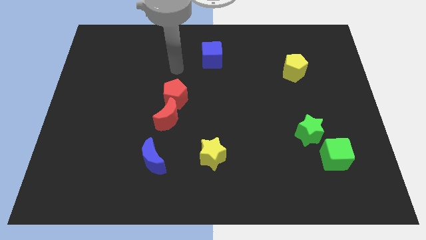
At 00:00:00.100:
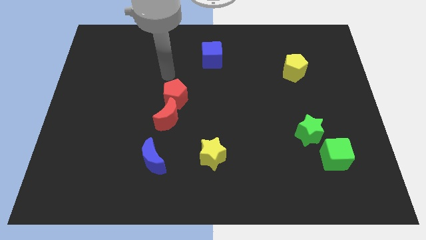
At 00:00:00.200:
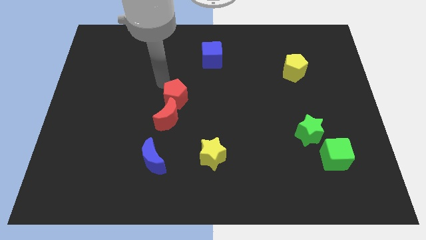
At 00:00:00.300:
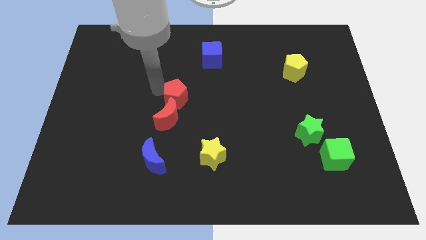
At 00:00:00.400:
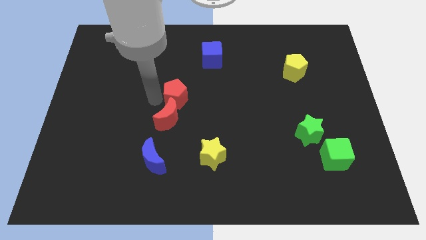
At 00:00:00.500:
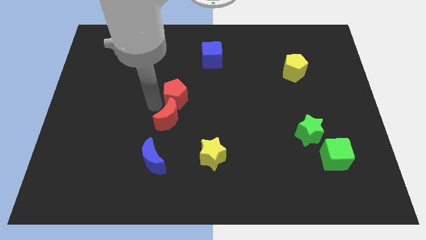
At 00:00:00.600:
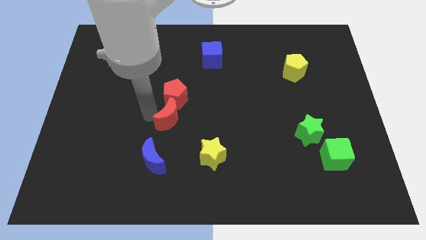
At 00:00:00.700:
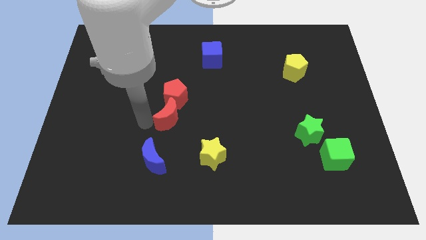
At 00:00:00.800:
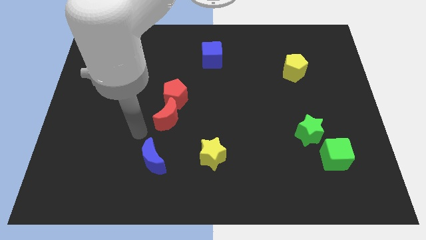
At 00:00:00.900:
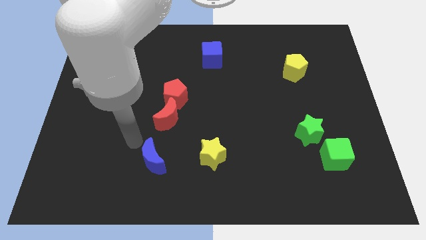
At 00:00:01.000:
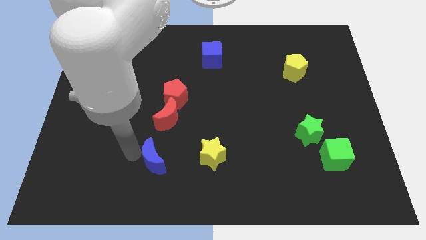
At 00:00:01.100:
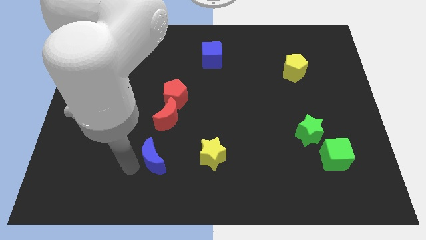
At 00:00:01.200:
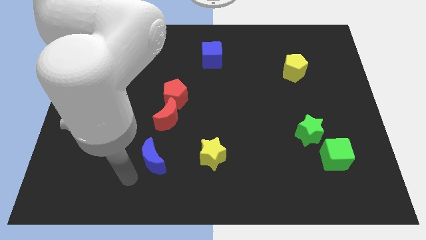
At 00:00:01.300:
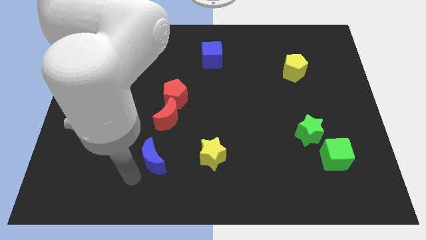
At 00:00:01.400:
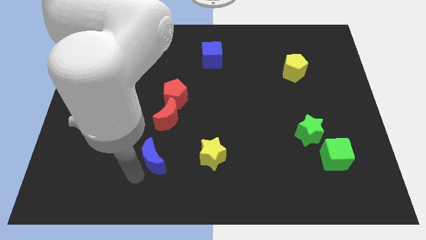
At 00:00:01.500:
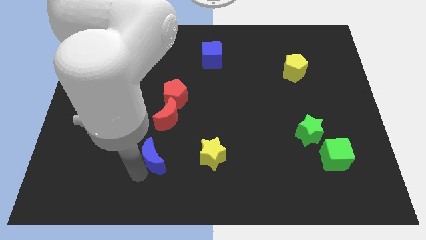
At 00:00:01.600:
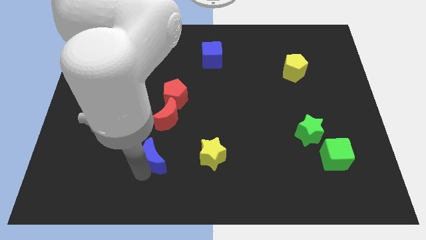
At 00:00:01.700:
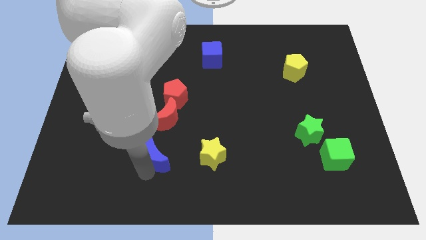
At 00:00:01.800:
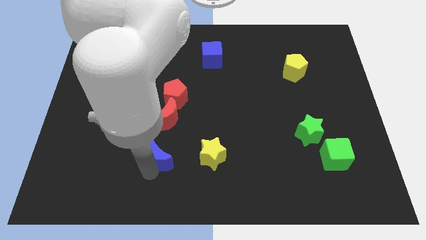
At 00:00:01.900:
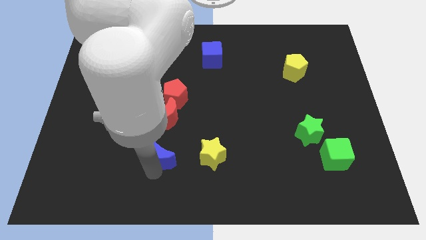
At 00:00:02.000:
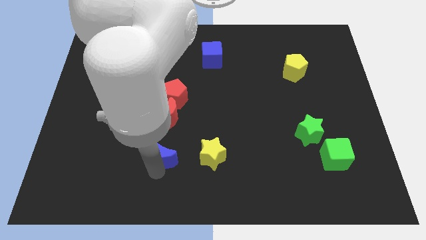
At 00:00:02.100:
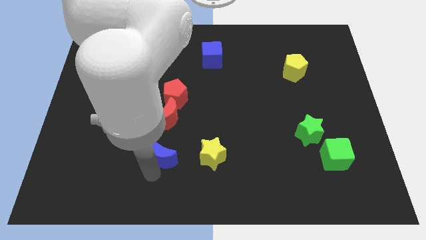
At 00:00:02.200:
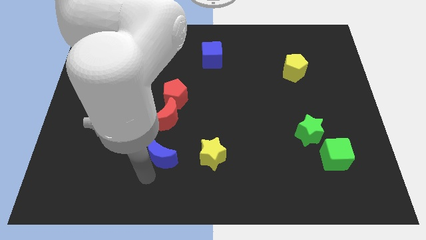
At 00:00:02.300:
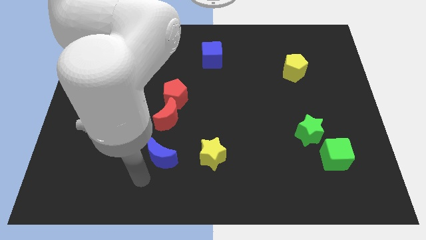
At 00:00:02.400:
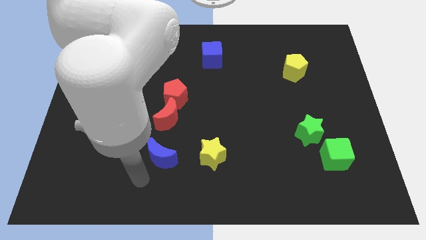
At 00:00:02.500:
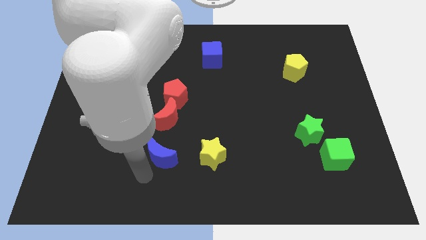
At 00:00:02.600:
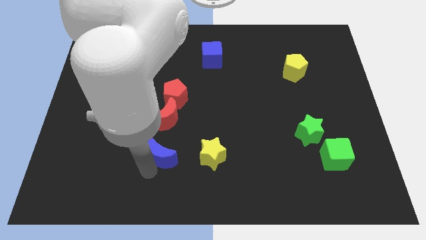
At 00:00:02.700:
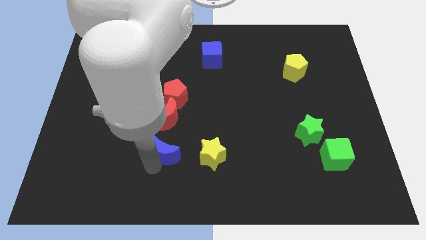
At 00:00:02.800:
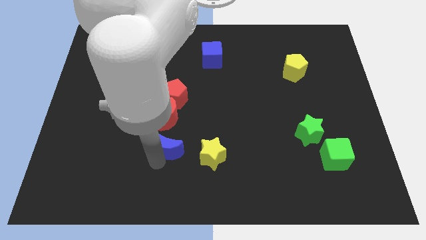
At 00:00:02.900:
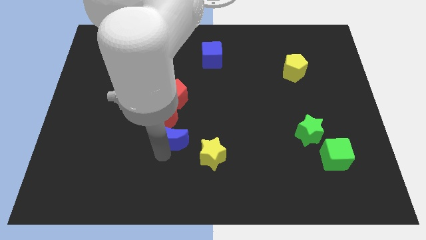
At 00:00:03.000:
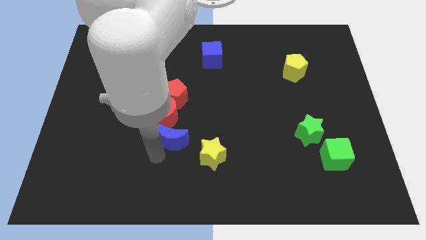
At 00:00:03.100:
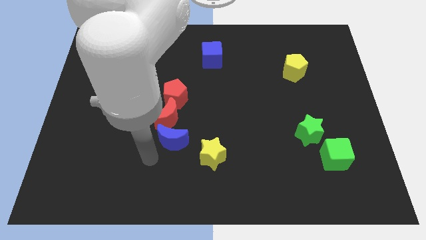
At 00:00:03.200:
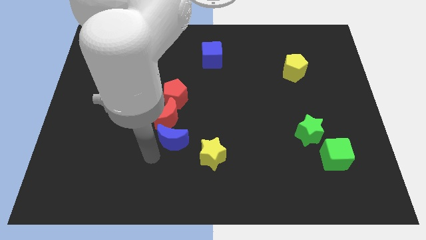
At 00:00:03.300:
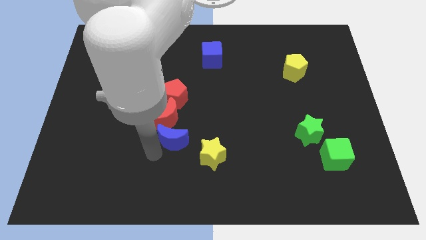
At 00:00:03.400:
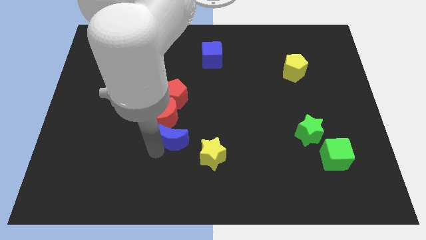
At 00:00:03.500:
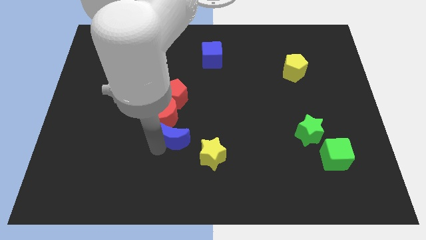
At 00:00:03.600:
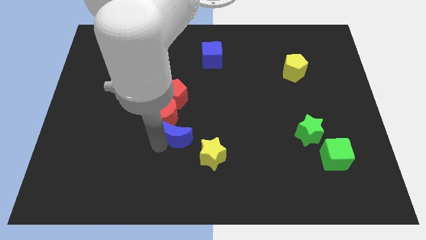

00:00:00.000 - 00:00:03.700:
slide the blue moon somewhat up and right

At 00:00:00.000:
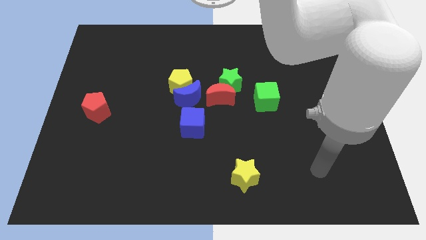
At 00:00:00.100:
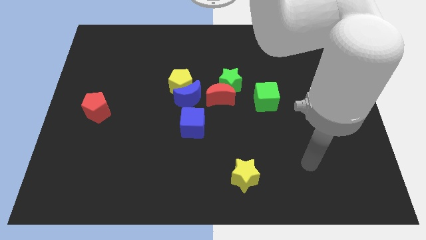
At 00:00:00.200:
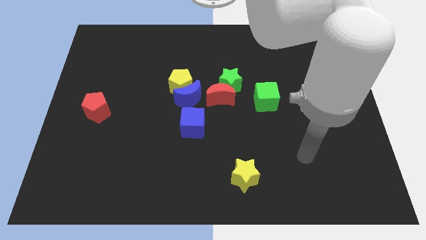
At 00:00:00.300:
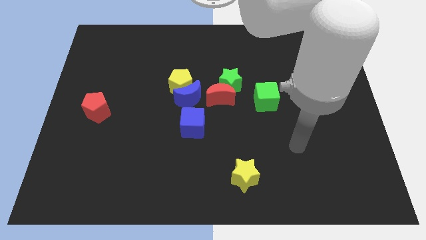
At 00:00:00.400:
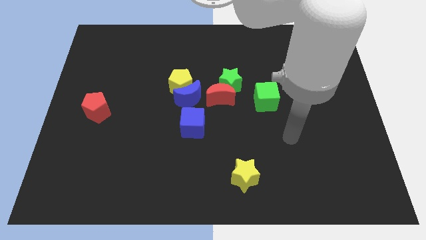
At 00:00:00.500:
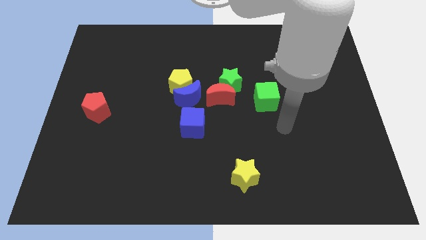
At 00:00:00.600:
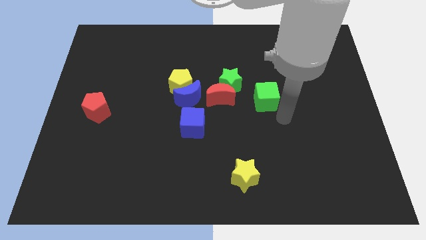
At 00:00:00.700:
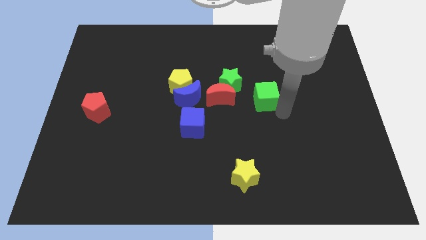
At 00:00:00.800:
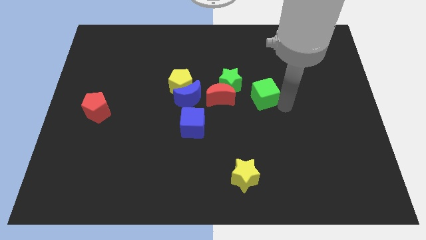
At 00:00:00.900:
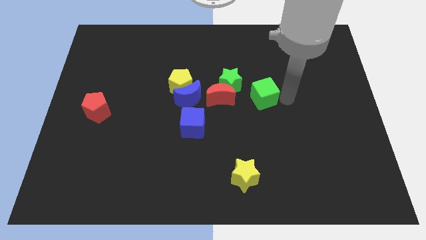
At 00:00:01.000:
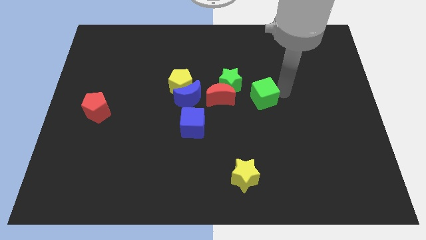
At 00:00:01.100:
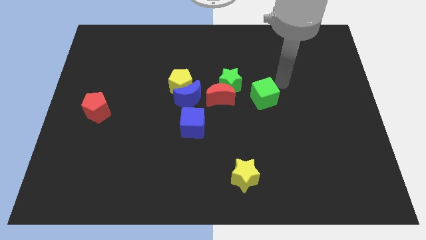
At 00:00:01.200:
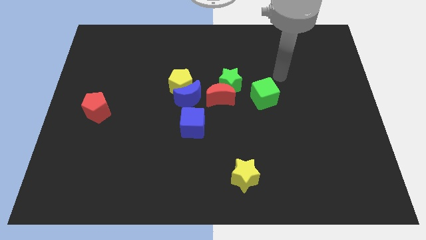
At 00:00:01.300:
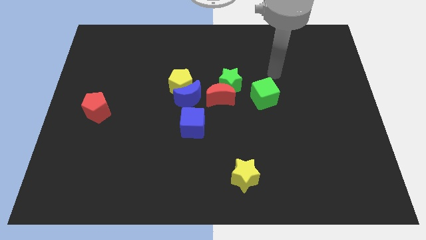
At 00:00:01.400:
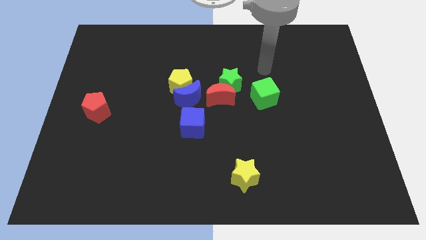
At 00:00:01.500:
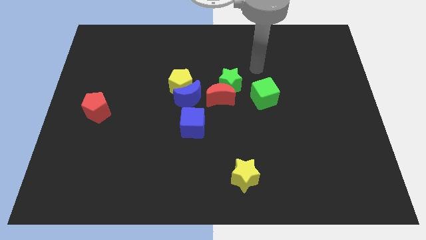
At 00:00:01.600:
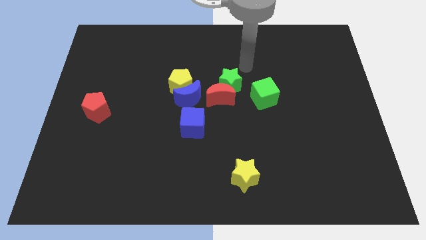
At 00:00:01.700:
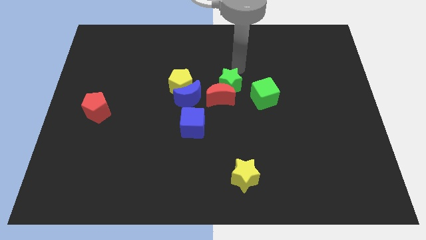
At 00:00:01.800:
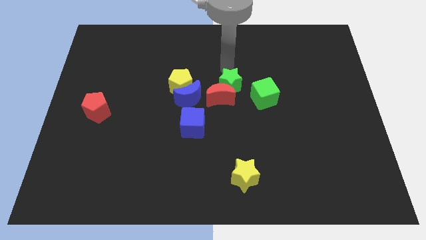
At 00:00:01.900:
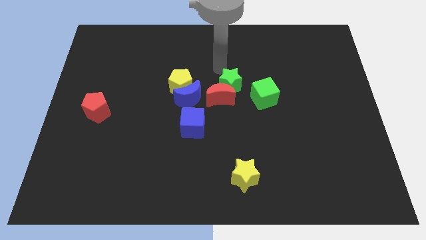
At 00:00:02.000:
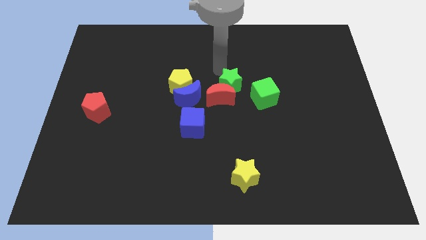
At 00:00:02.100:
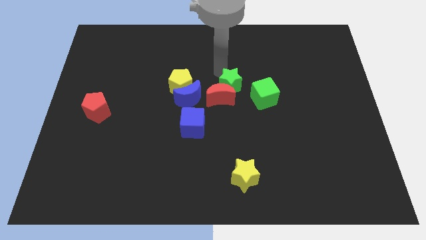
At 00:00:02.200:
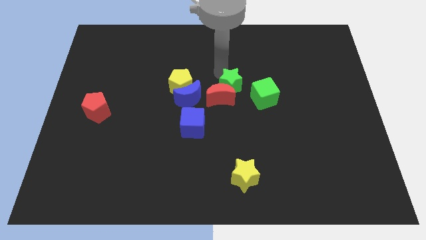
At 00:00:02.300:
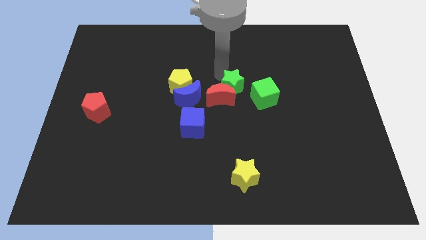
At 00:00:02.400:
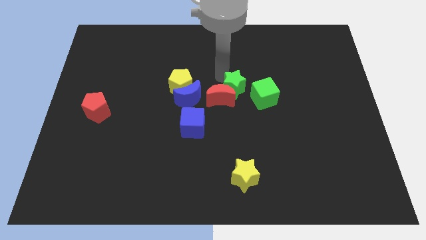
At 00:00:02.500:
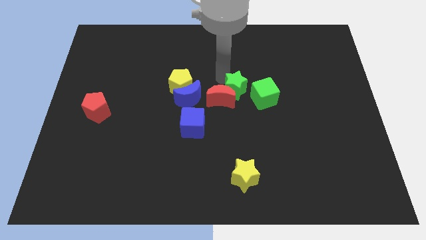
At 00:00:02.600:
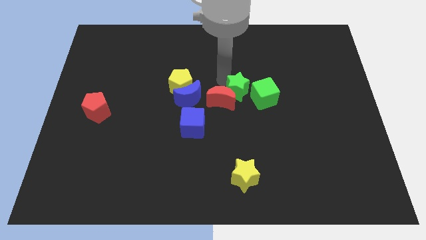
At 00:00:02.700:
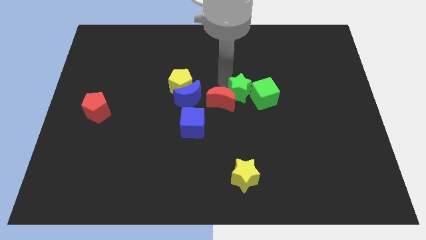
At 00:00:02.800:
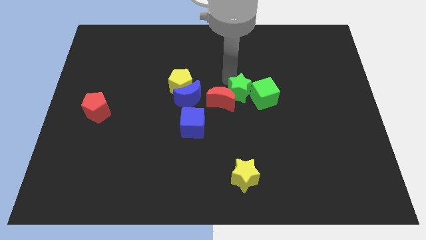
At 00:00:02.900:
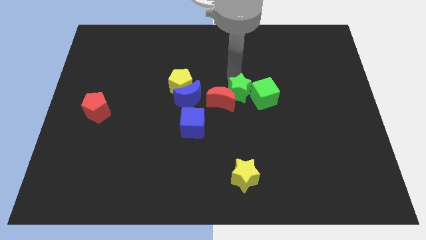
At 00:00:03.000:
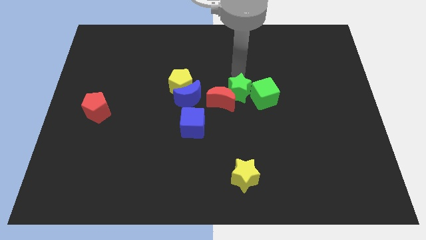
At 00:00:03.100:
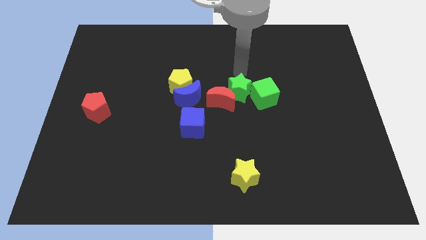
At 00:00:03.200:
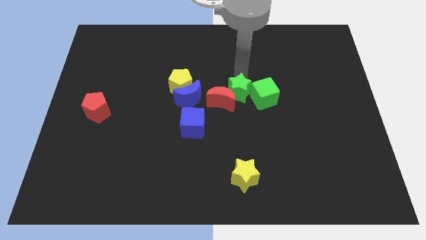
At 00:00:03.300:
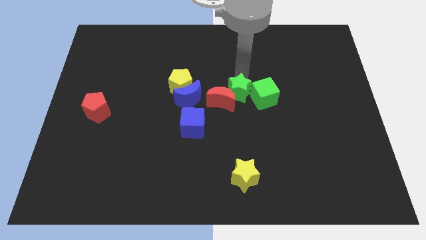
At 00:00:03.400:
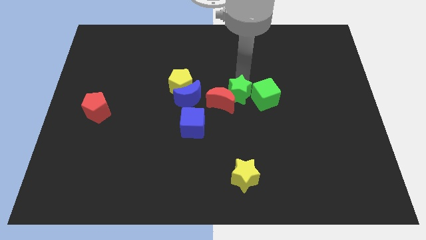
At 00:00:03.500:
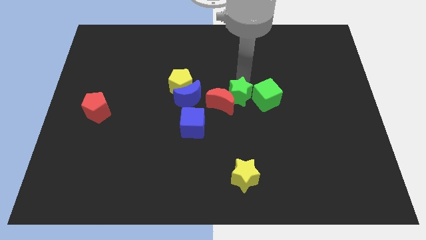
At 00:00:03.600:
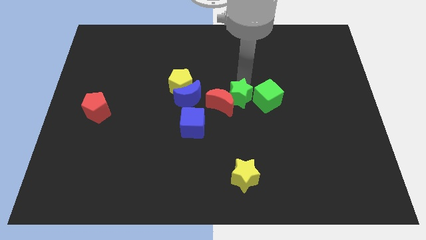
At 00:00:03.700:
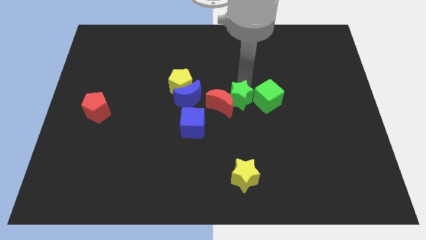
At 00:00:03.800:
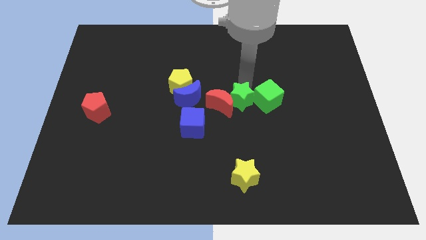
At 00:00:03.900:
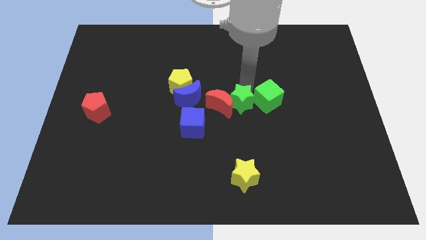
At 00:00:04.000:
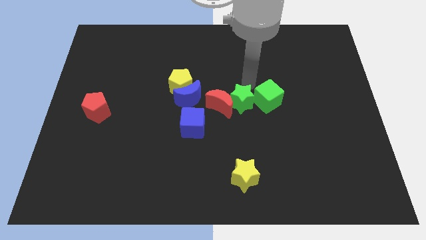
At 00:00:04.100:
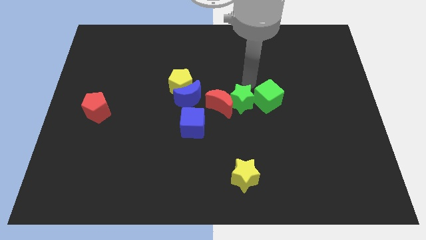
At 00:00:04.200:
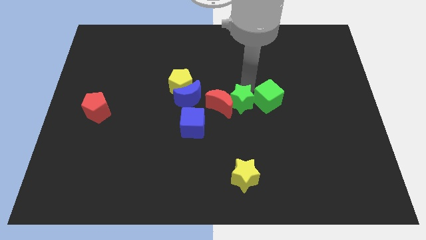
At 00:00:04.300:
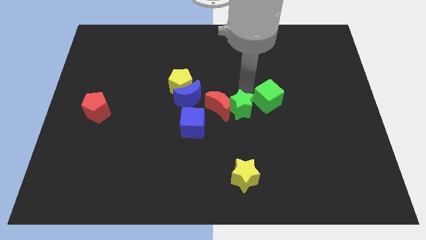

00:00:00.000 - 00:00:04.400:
push the green star downwards slightly
